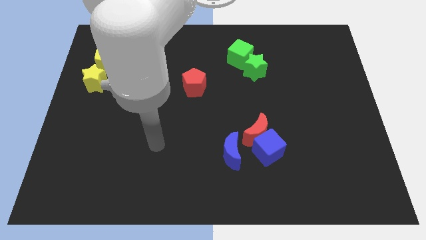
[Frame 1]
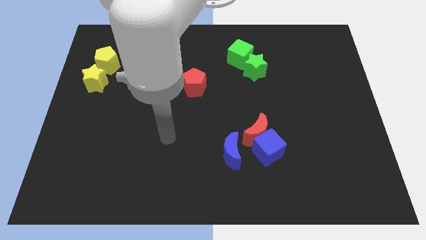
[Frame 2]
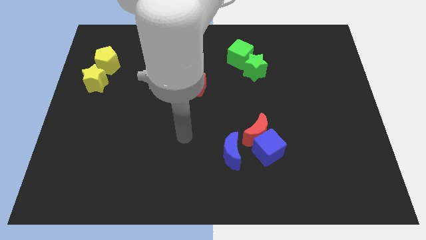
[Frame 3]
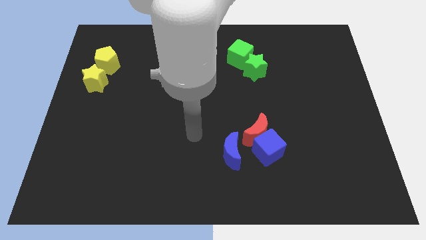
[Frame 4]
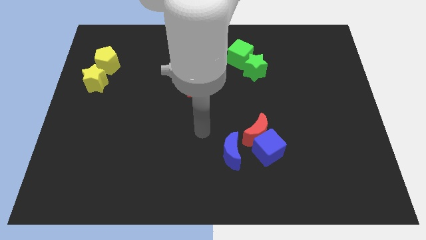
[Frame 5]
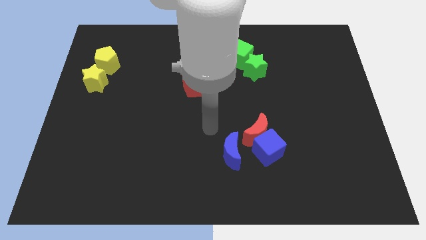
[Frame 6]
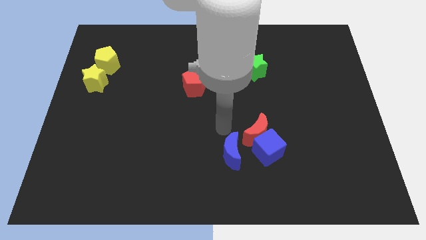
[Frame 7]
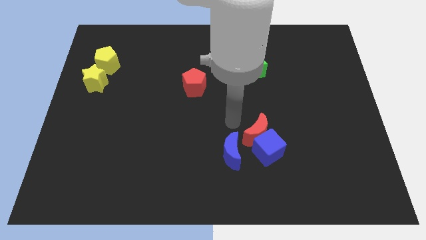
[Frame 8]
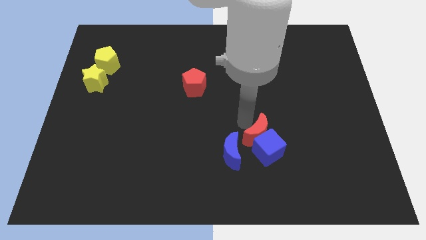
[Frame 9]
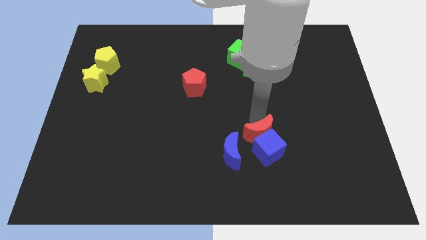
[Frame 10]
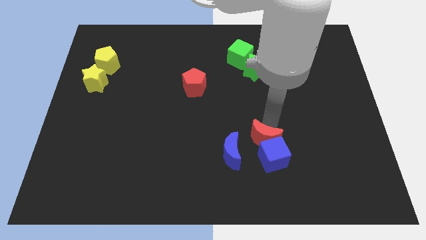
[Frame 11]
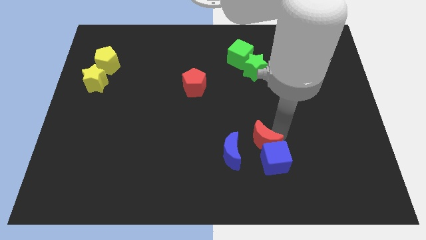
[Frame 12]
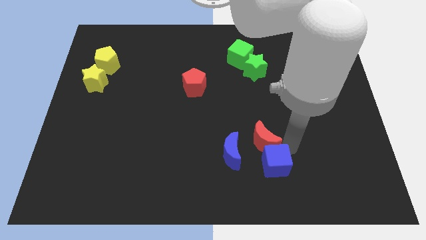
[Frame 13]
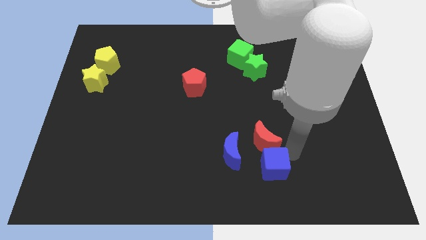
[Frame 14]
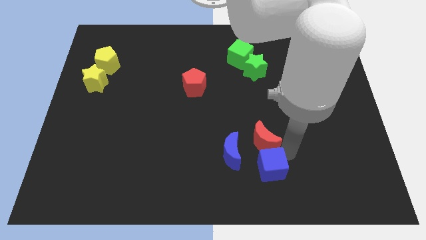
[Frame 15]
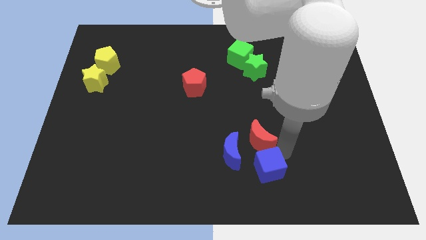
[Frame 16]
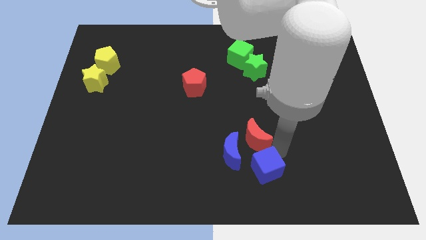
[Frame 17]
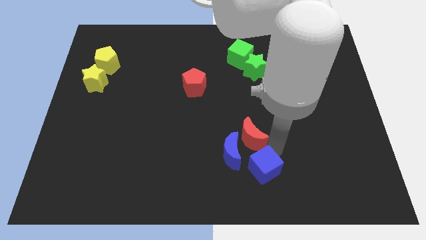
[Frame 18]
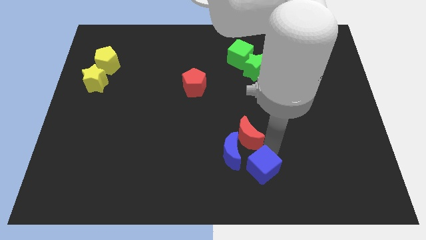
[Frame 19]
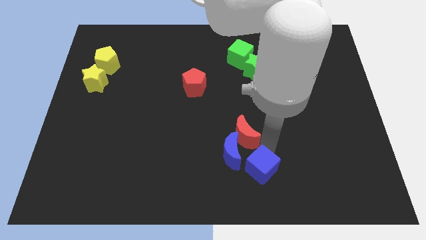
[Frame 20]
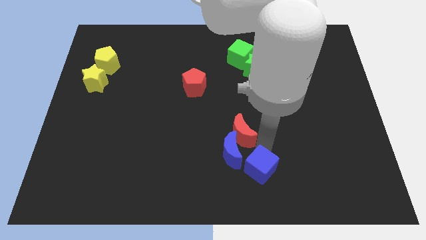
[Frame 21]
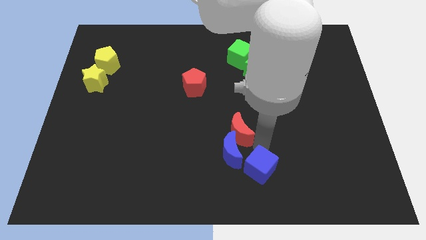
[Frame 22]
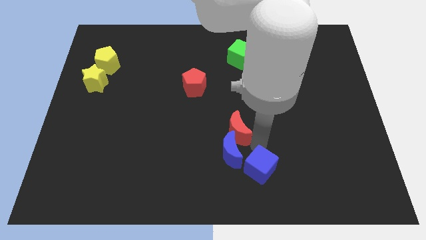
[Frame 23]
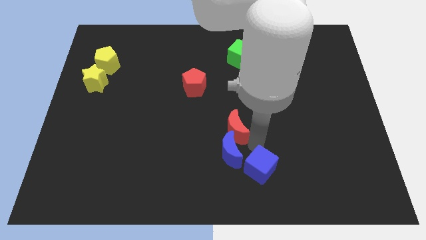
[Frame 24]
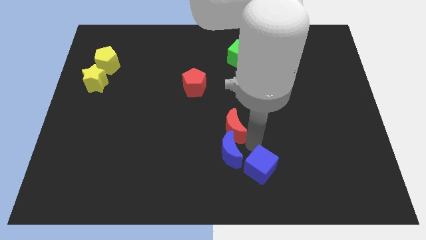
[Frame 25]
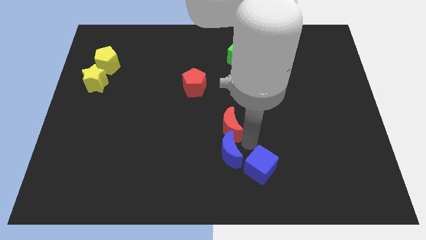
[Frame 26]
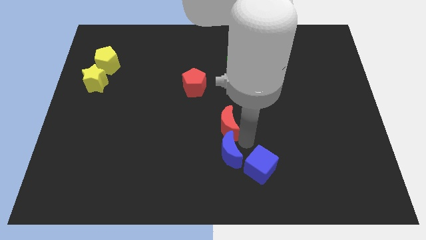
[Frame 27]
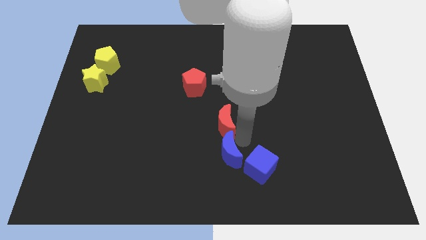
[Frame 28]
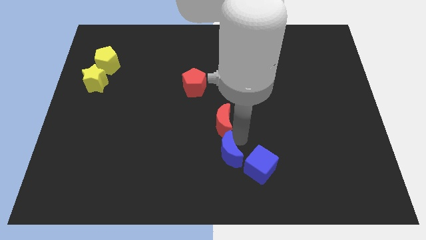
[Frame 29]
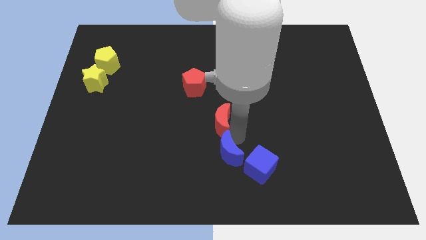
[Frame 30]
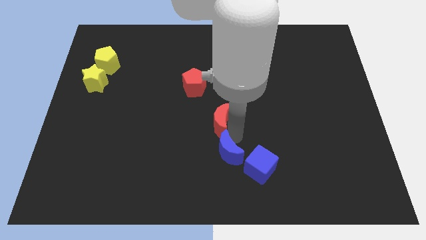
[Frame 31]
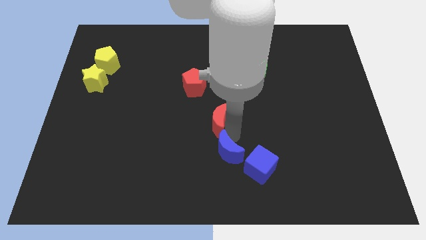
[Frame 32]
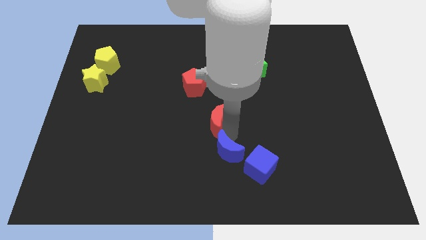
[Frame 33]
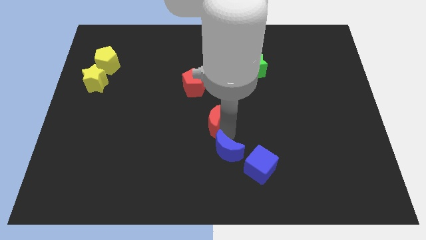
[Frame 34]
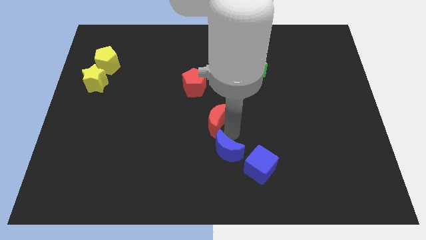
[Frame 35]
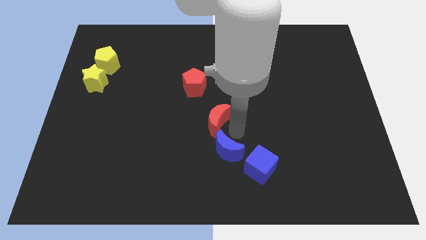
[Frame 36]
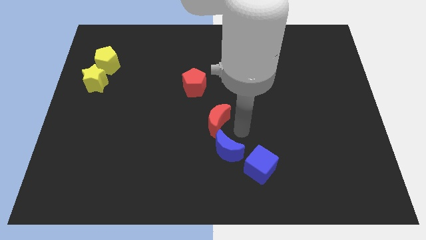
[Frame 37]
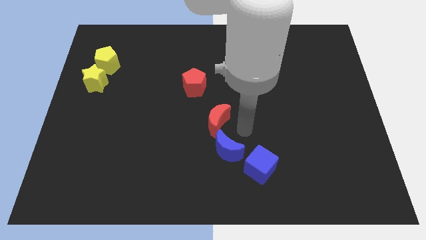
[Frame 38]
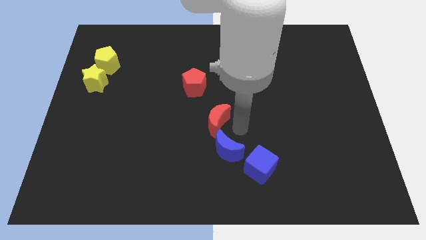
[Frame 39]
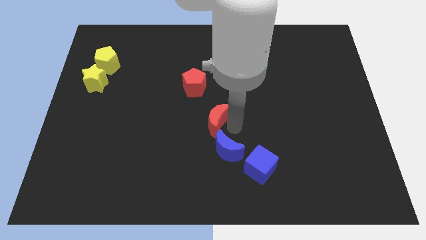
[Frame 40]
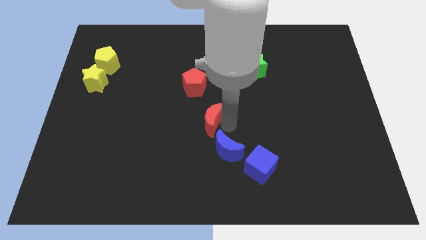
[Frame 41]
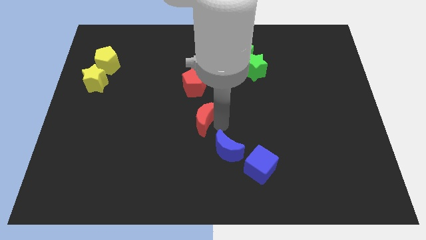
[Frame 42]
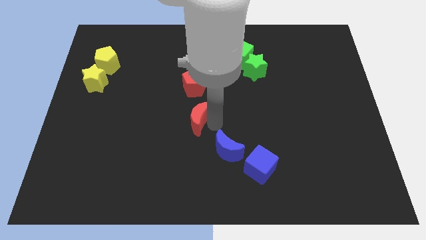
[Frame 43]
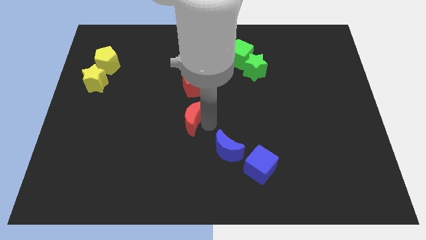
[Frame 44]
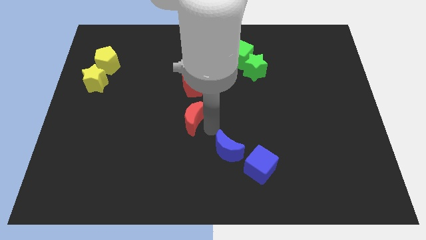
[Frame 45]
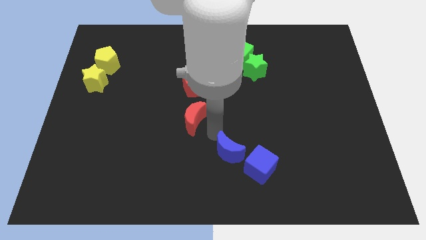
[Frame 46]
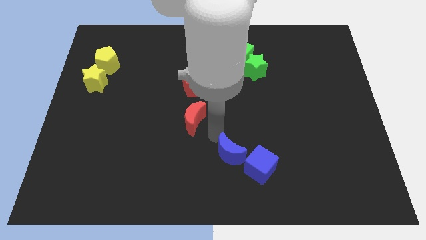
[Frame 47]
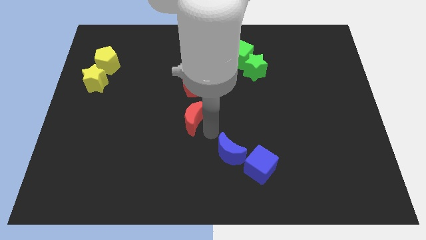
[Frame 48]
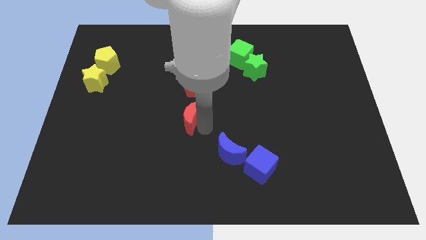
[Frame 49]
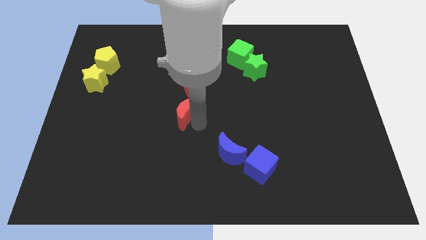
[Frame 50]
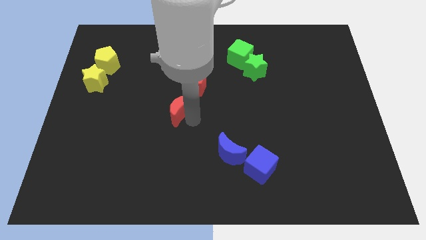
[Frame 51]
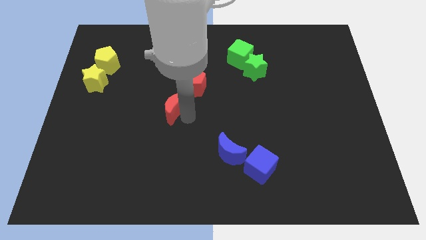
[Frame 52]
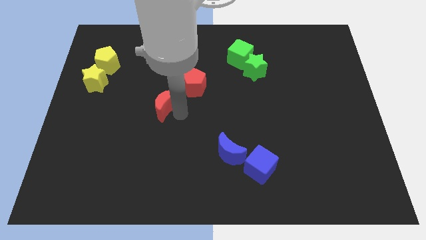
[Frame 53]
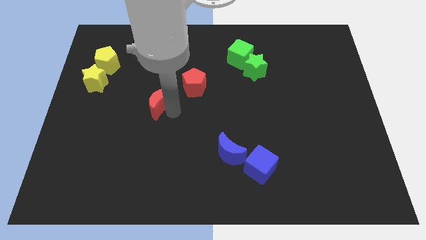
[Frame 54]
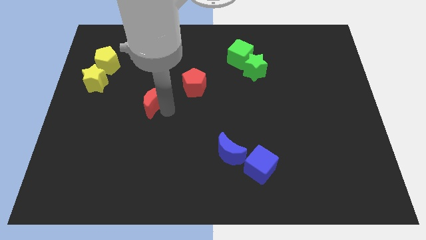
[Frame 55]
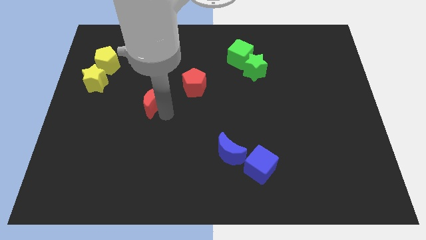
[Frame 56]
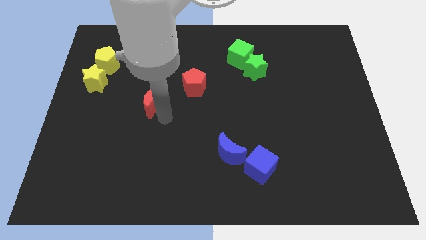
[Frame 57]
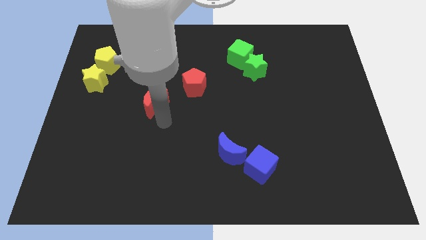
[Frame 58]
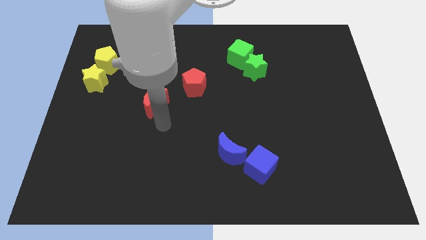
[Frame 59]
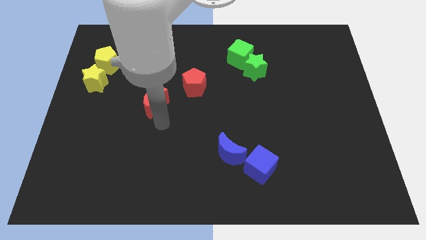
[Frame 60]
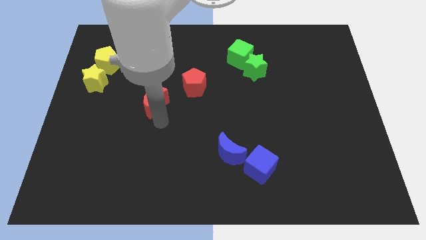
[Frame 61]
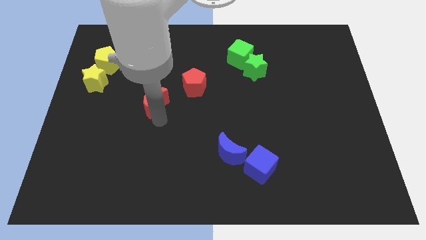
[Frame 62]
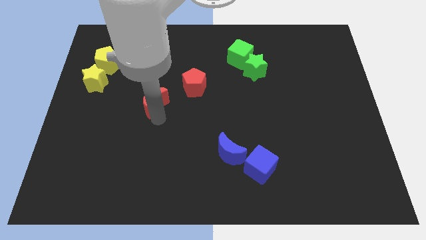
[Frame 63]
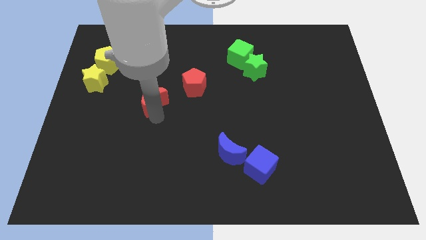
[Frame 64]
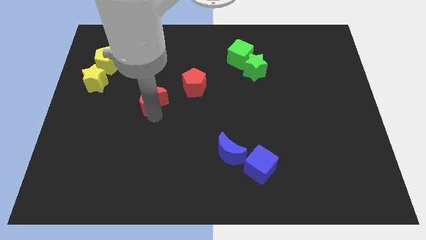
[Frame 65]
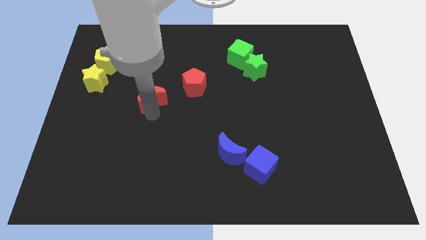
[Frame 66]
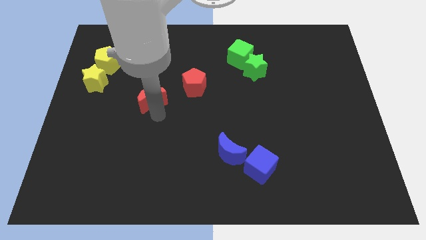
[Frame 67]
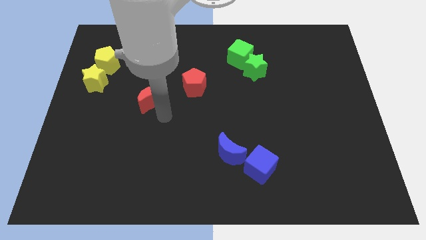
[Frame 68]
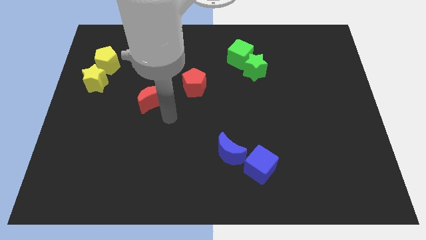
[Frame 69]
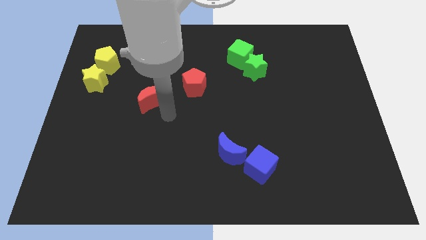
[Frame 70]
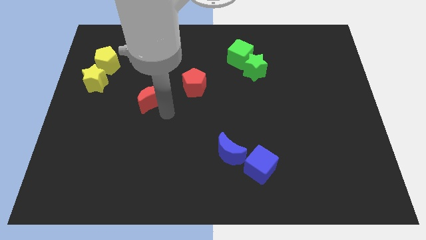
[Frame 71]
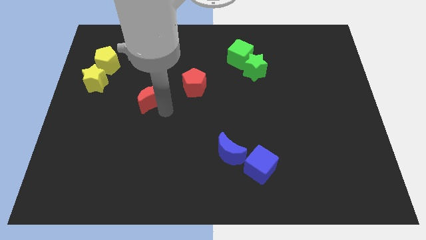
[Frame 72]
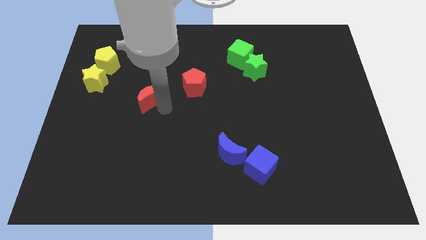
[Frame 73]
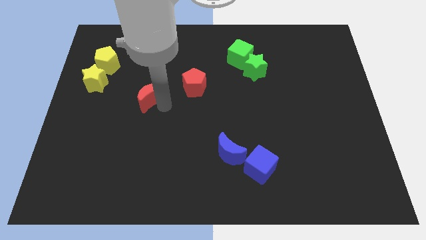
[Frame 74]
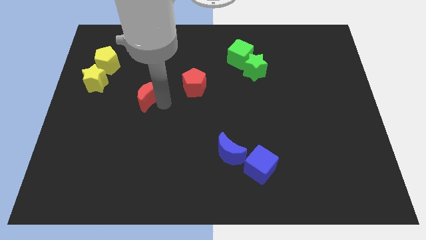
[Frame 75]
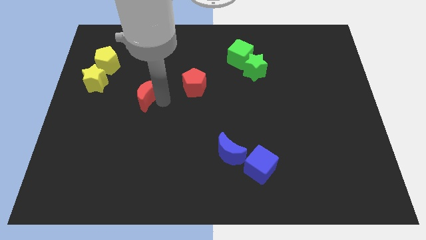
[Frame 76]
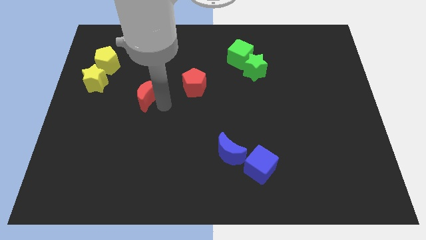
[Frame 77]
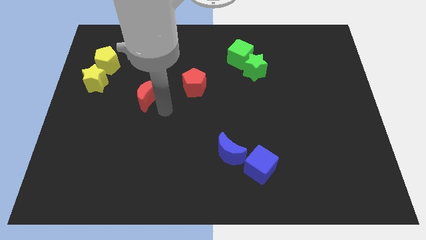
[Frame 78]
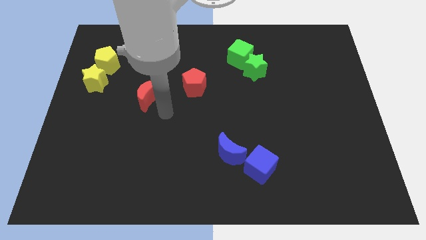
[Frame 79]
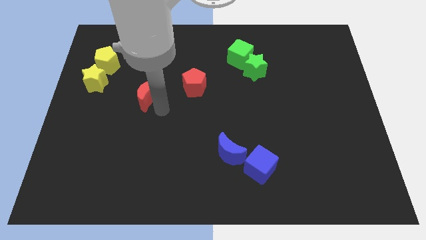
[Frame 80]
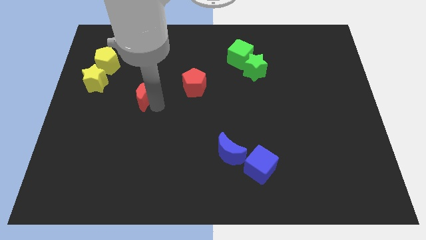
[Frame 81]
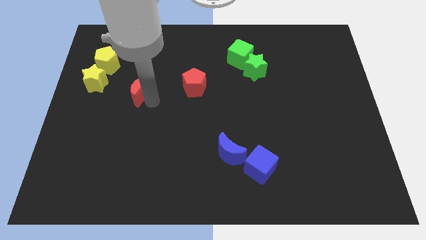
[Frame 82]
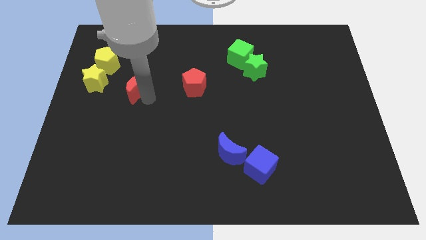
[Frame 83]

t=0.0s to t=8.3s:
push the red moon diagonally down and to the right of the yellow pentagon
